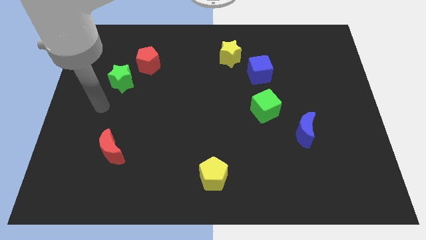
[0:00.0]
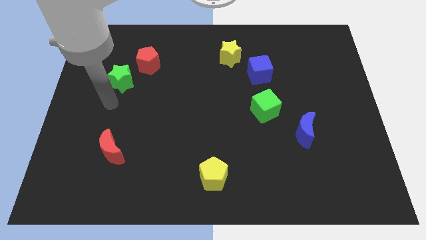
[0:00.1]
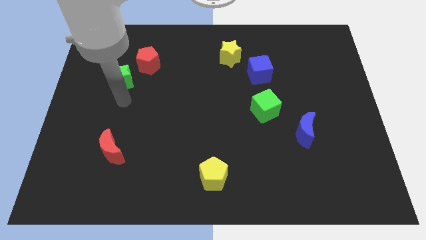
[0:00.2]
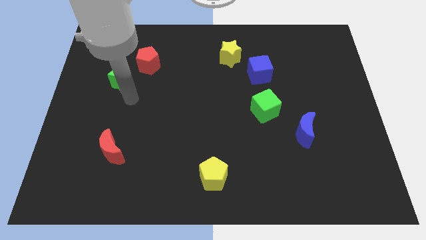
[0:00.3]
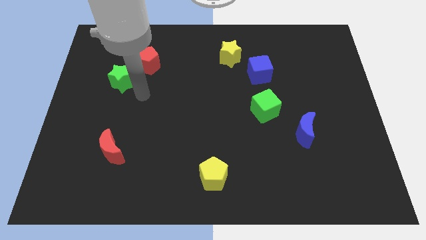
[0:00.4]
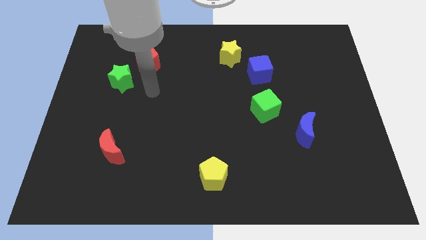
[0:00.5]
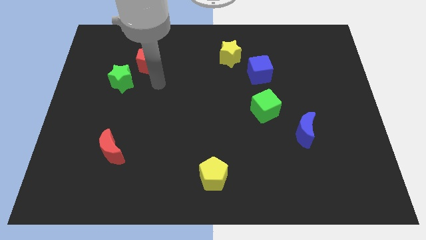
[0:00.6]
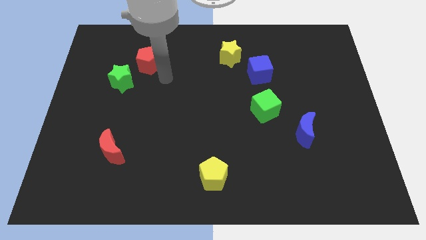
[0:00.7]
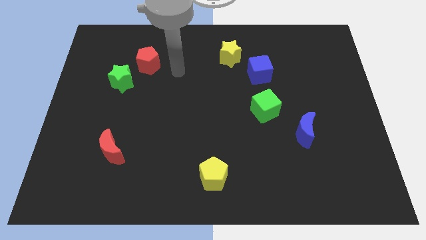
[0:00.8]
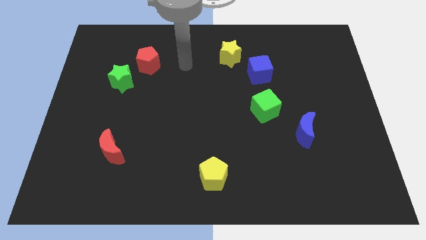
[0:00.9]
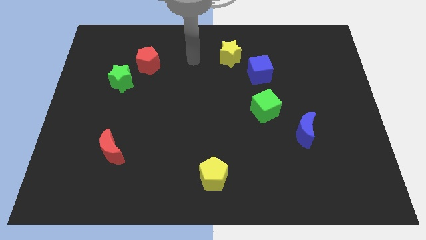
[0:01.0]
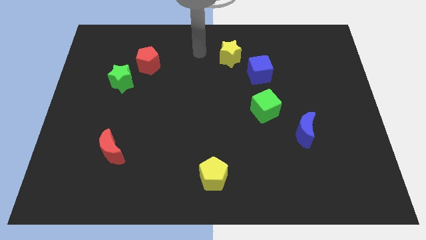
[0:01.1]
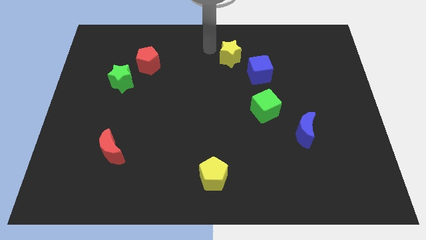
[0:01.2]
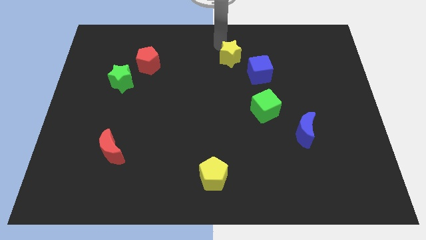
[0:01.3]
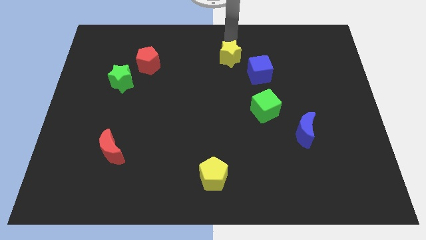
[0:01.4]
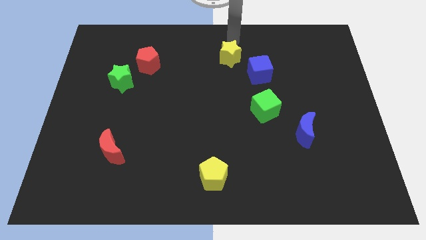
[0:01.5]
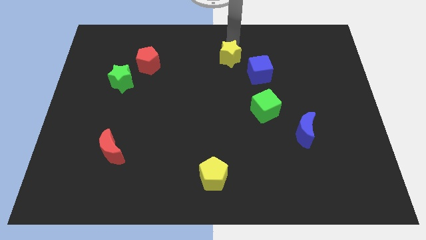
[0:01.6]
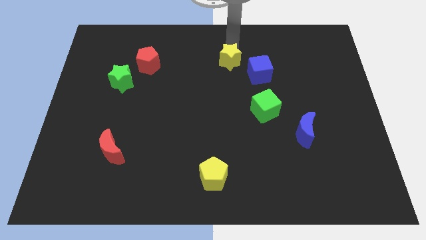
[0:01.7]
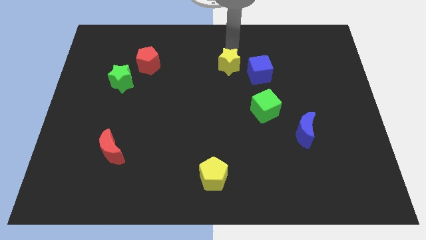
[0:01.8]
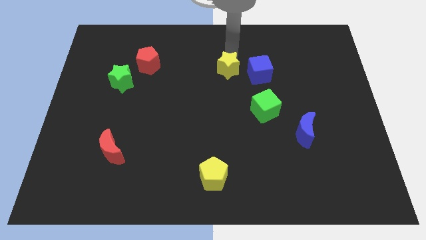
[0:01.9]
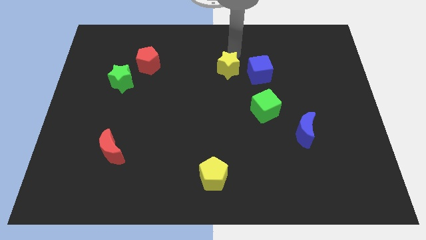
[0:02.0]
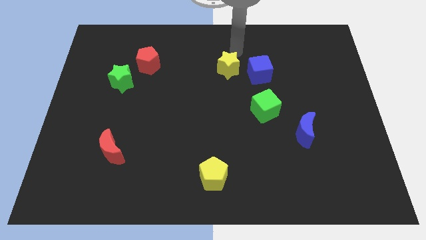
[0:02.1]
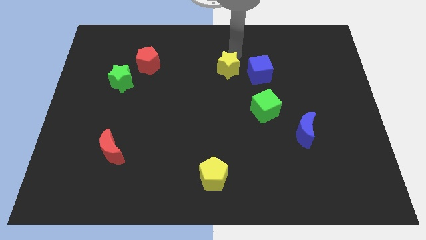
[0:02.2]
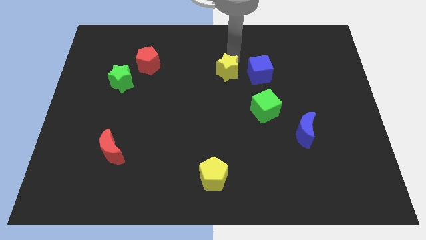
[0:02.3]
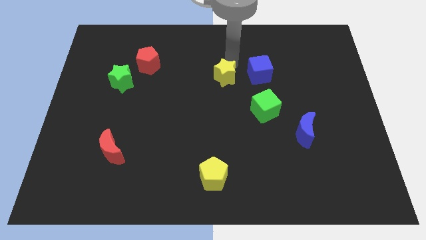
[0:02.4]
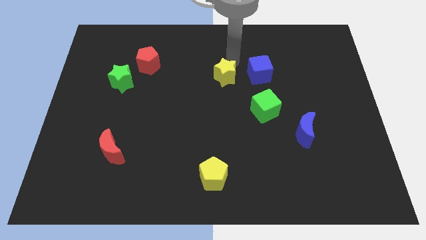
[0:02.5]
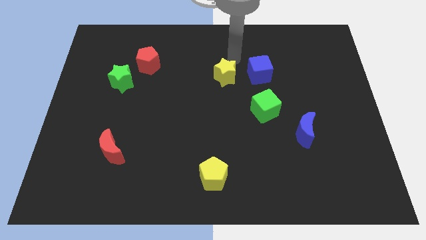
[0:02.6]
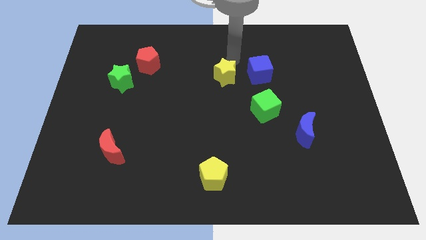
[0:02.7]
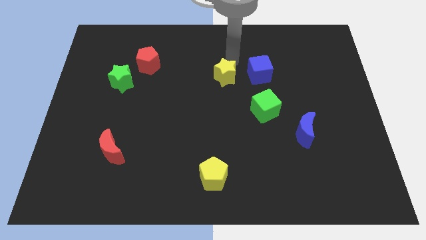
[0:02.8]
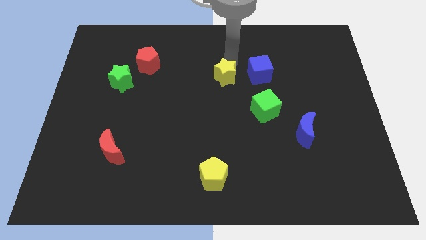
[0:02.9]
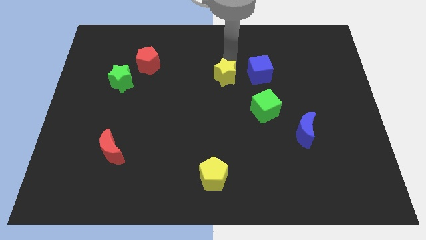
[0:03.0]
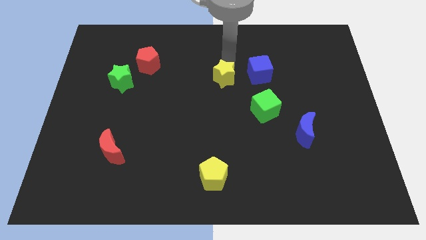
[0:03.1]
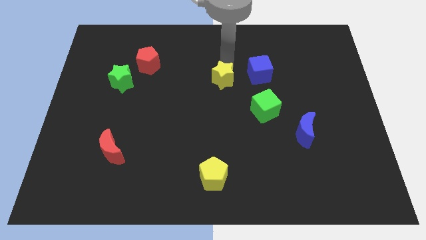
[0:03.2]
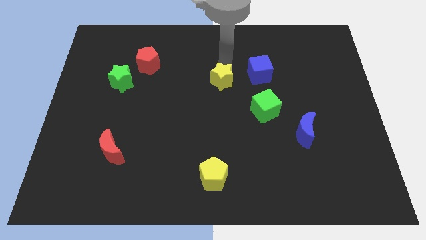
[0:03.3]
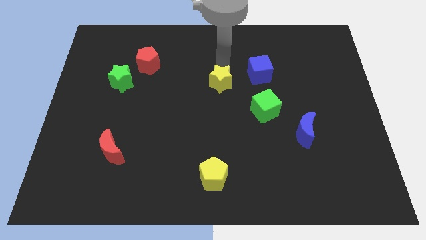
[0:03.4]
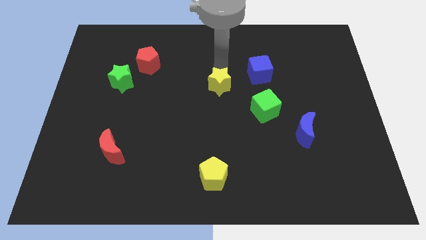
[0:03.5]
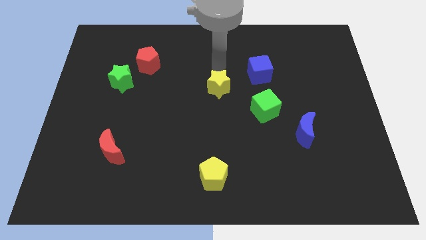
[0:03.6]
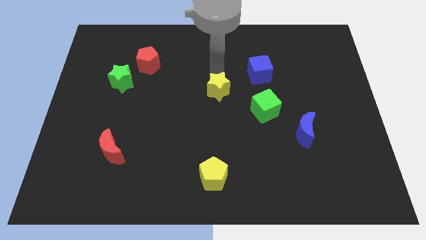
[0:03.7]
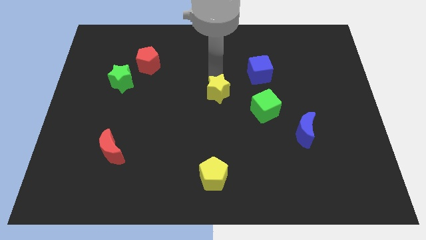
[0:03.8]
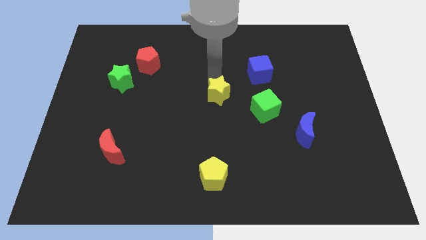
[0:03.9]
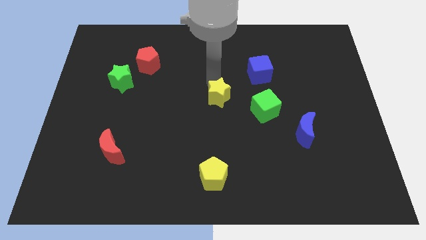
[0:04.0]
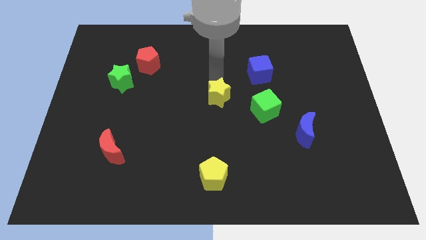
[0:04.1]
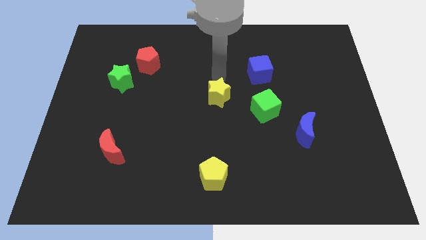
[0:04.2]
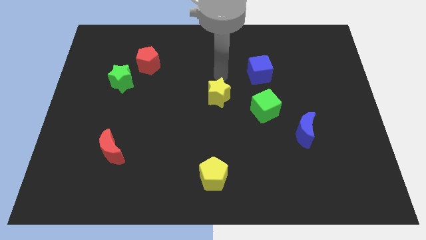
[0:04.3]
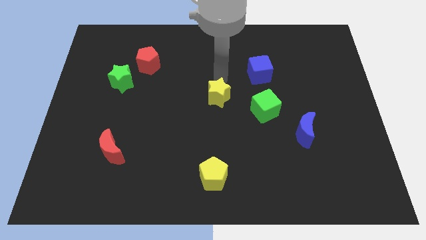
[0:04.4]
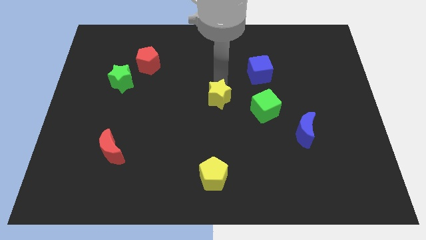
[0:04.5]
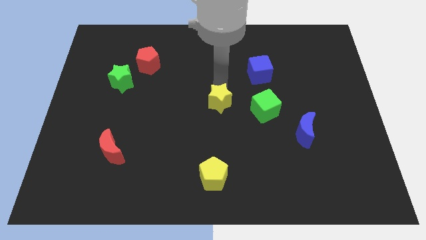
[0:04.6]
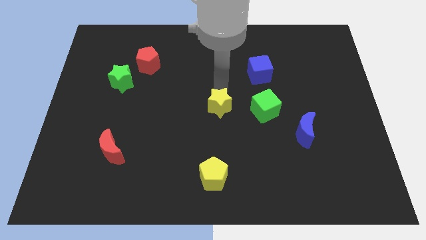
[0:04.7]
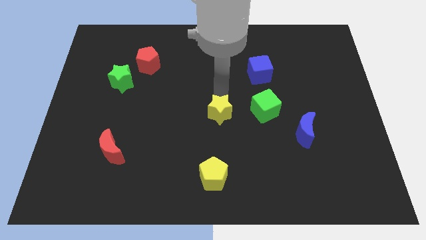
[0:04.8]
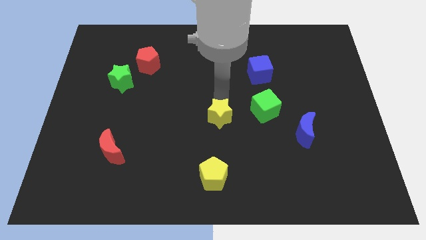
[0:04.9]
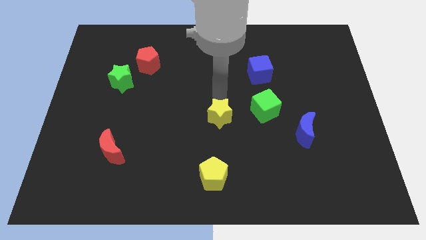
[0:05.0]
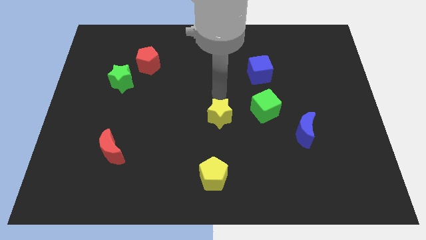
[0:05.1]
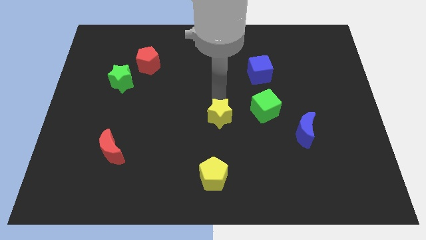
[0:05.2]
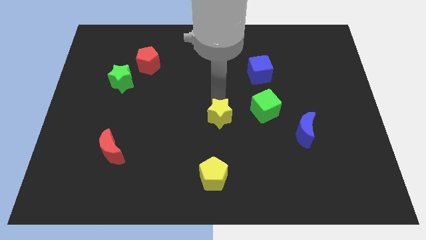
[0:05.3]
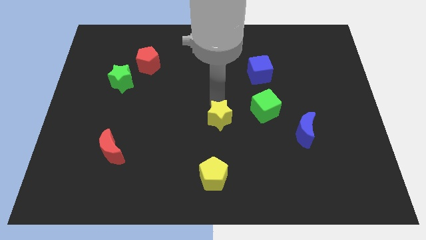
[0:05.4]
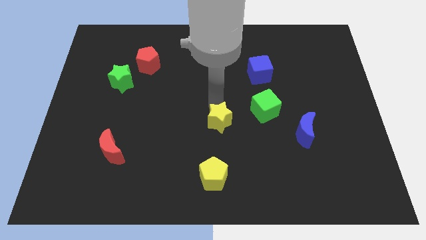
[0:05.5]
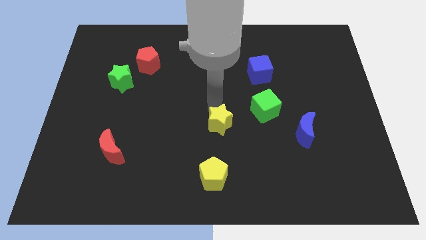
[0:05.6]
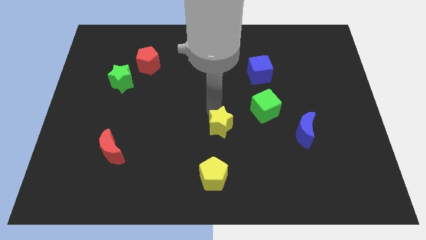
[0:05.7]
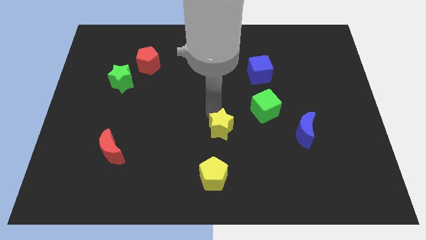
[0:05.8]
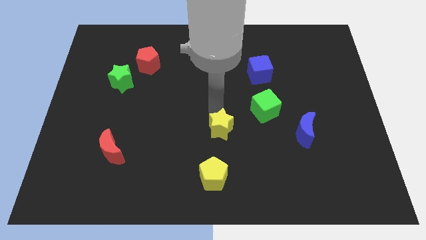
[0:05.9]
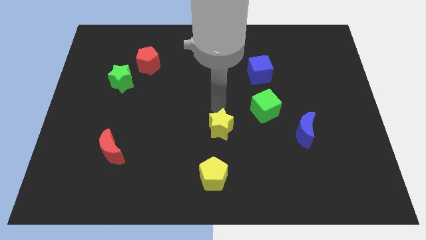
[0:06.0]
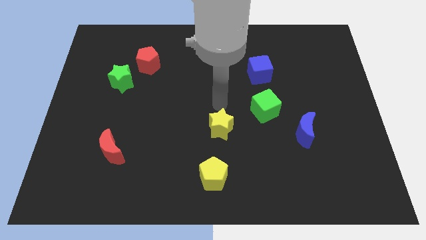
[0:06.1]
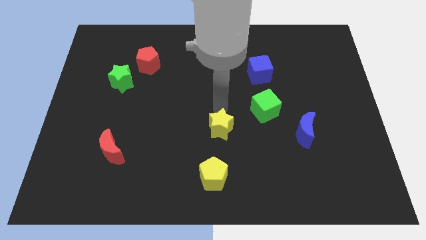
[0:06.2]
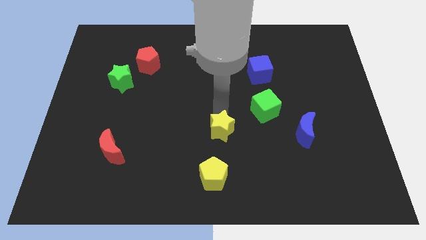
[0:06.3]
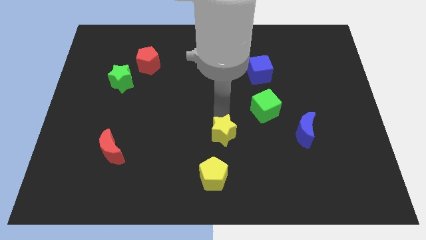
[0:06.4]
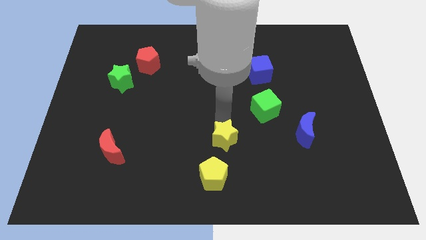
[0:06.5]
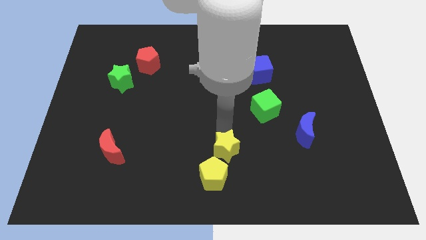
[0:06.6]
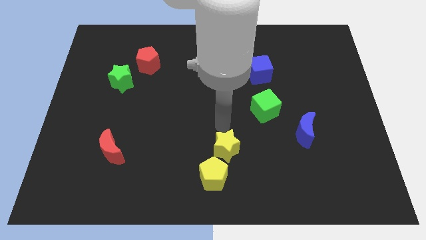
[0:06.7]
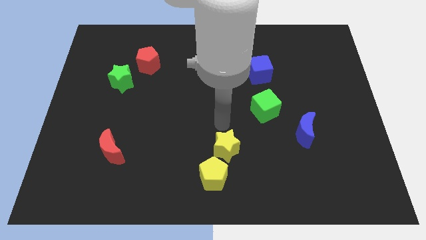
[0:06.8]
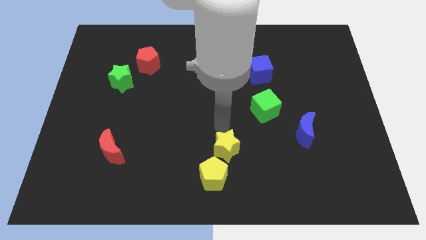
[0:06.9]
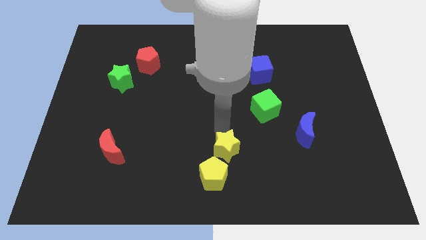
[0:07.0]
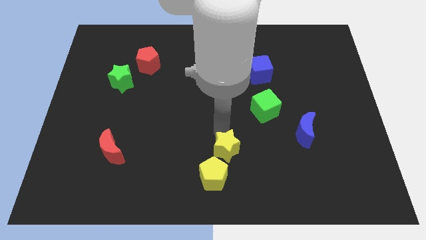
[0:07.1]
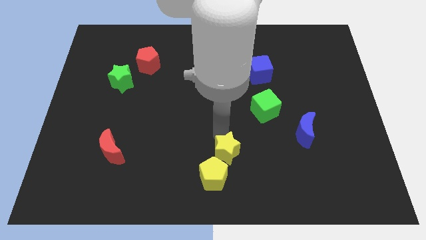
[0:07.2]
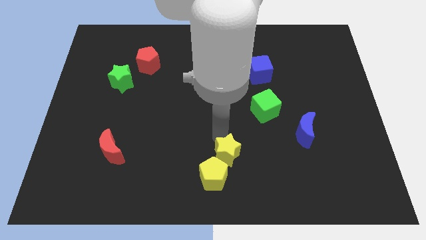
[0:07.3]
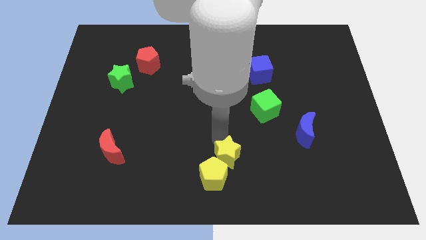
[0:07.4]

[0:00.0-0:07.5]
move the yellow star to the bottom side
